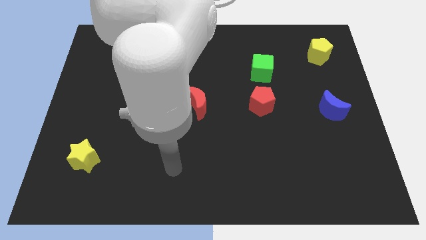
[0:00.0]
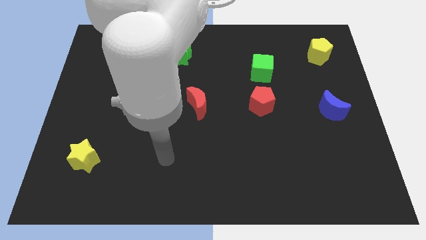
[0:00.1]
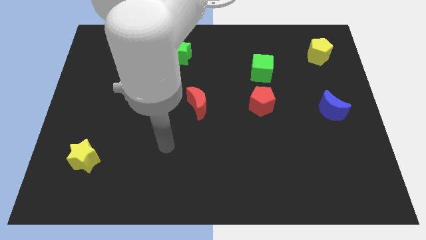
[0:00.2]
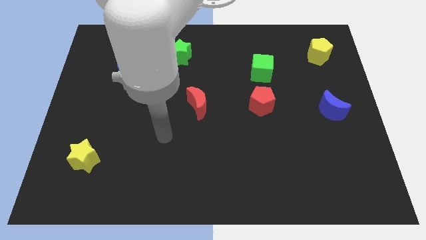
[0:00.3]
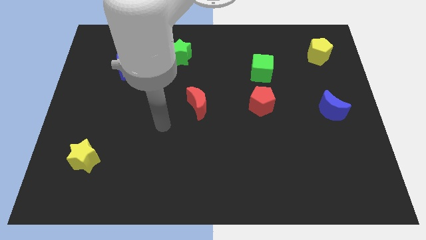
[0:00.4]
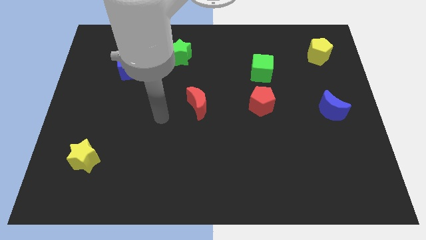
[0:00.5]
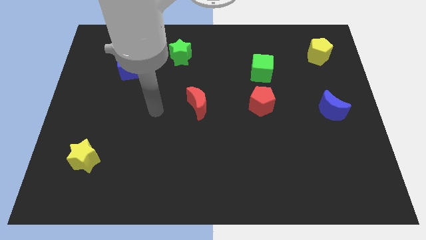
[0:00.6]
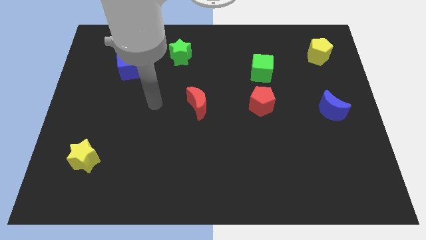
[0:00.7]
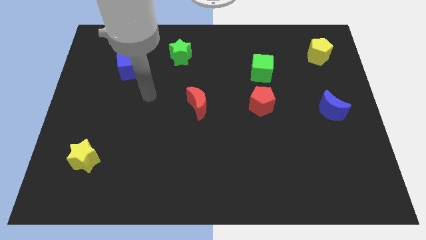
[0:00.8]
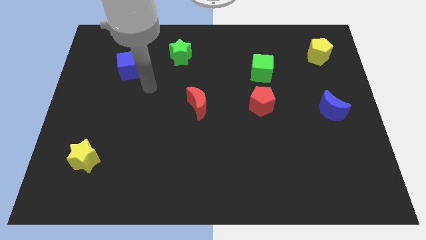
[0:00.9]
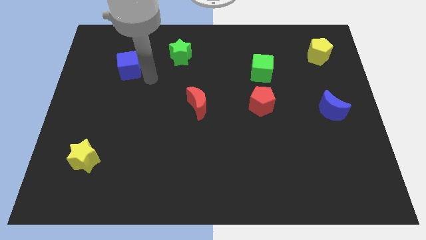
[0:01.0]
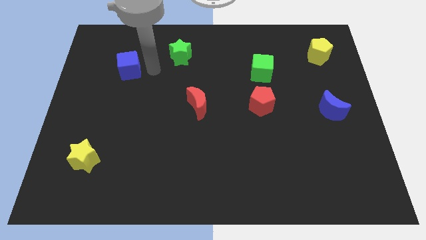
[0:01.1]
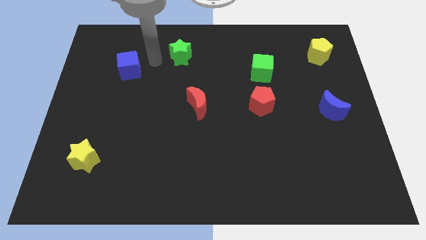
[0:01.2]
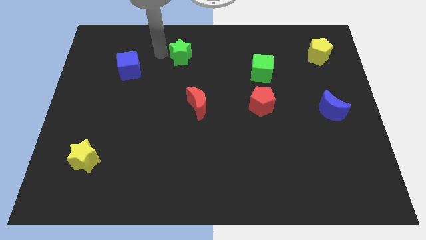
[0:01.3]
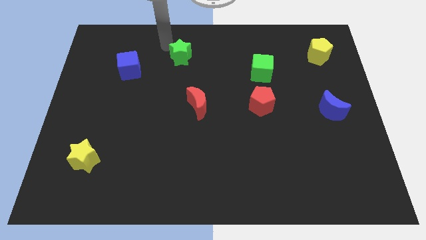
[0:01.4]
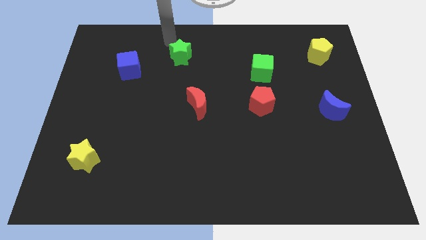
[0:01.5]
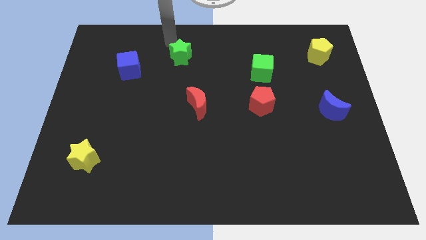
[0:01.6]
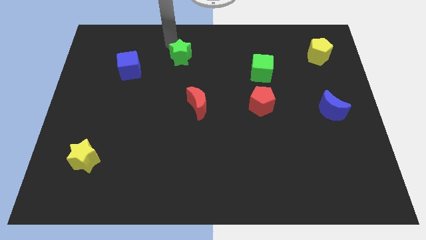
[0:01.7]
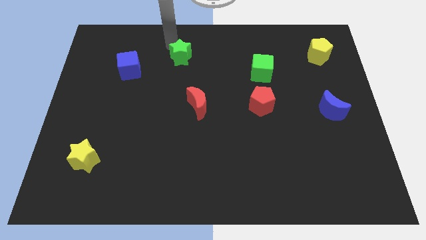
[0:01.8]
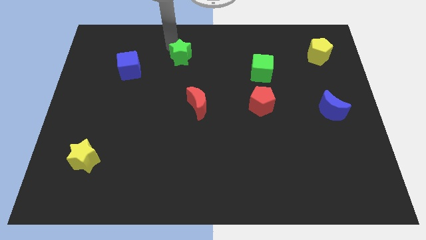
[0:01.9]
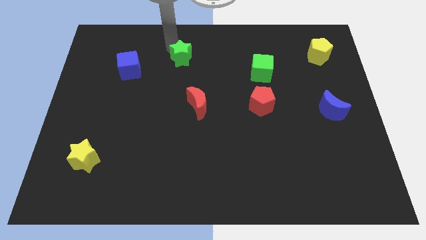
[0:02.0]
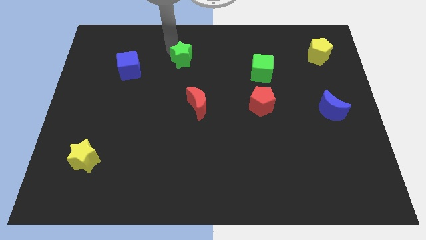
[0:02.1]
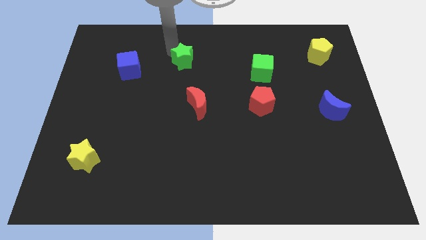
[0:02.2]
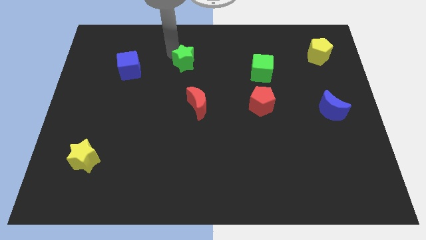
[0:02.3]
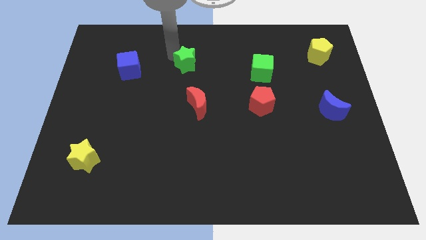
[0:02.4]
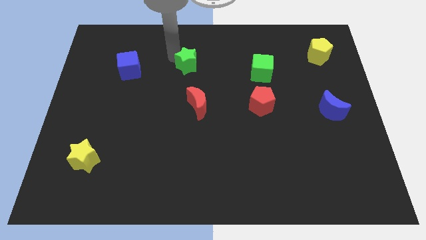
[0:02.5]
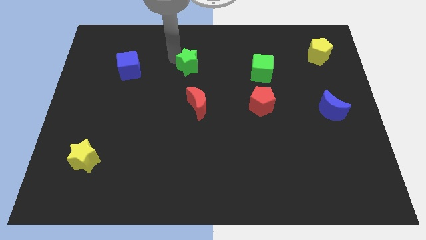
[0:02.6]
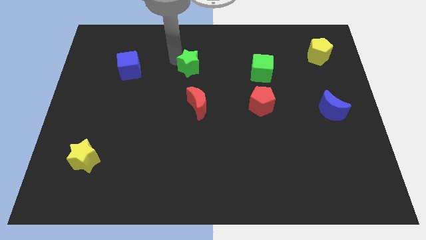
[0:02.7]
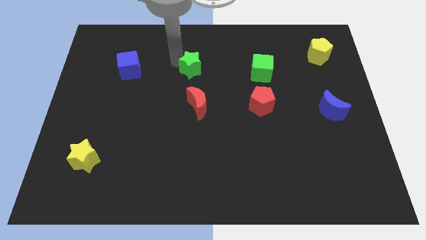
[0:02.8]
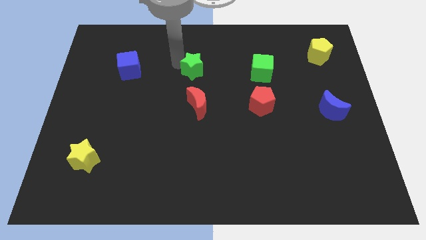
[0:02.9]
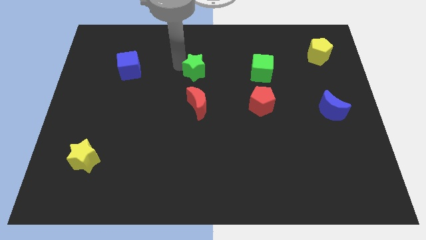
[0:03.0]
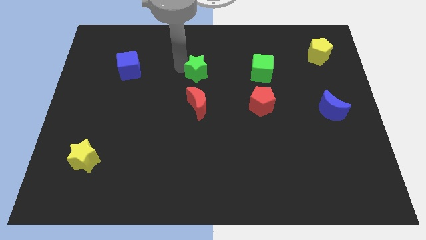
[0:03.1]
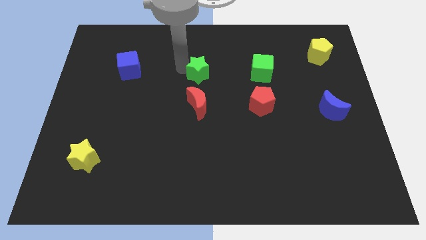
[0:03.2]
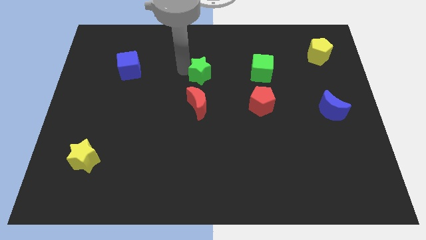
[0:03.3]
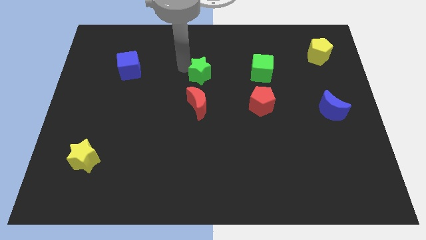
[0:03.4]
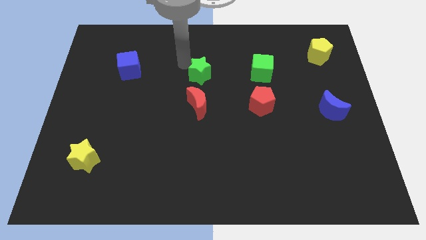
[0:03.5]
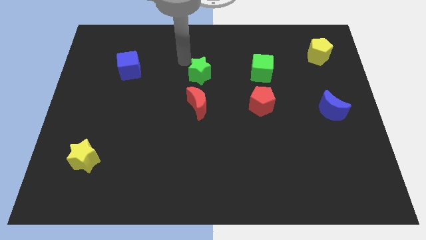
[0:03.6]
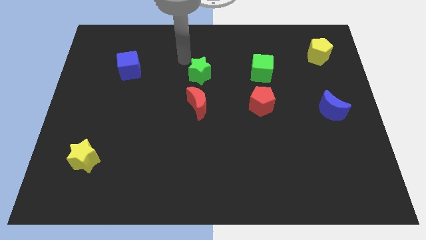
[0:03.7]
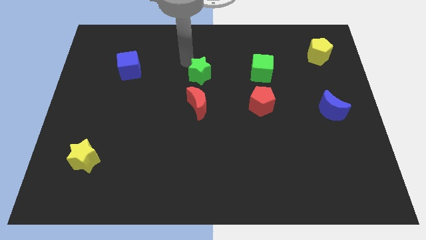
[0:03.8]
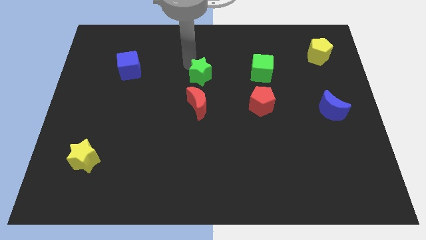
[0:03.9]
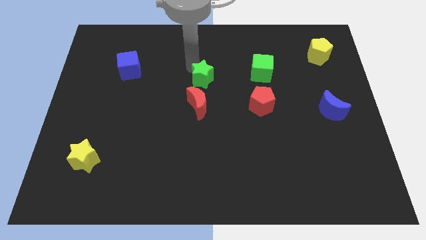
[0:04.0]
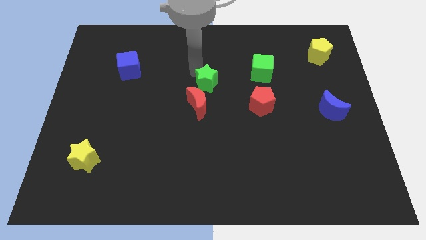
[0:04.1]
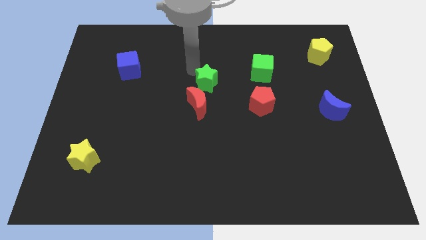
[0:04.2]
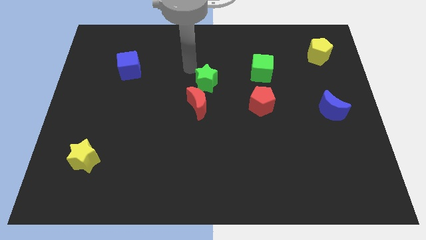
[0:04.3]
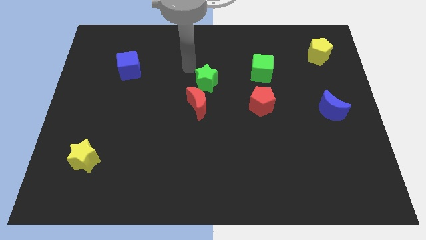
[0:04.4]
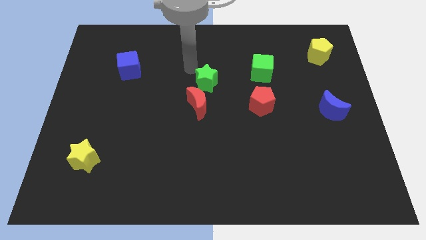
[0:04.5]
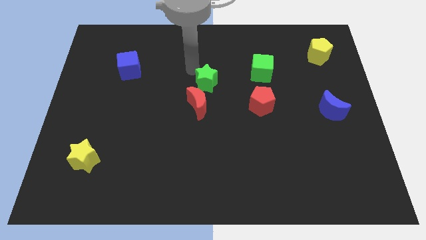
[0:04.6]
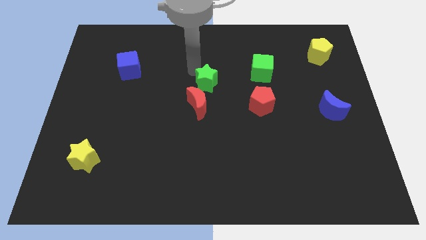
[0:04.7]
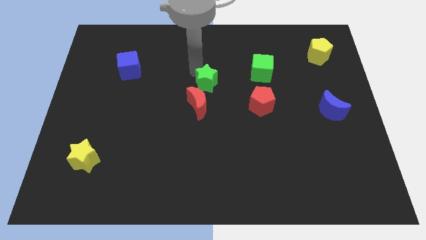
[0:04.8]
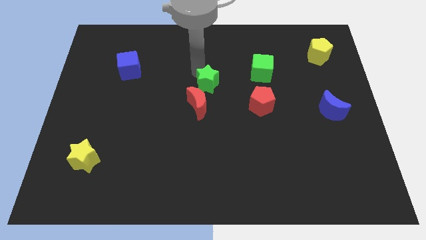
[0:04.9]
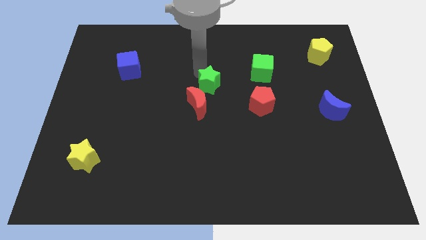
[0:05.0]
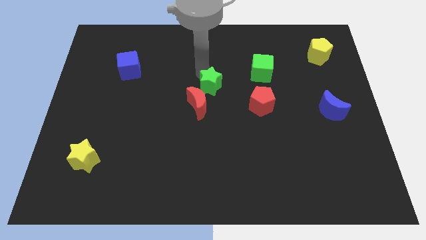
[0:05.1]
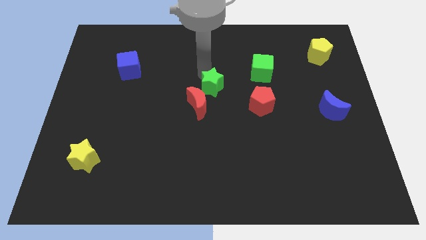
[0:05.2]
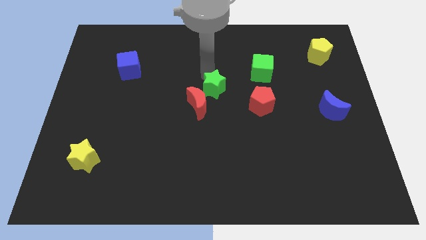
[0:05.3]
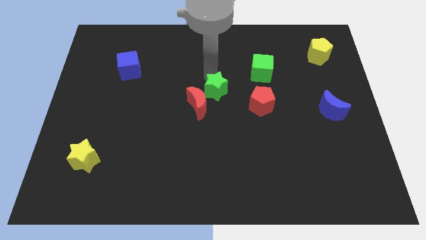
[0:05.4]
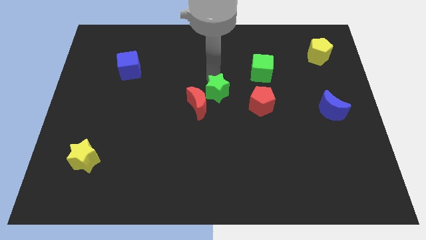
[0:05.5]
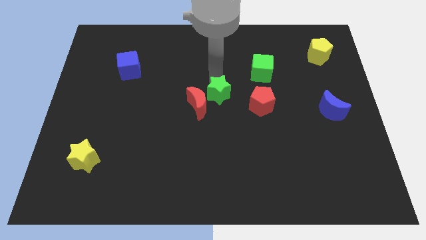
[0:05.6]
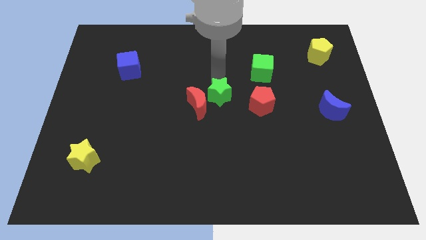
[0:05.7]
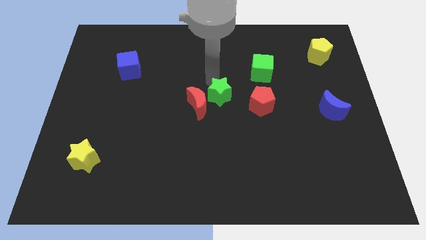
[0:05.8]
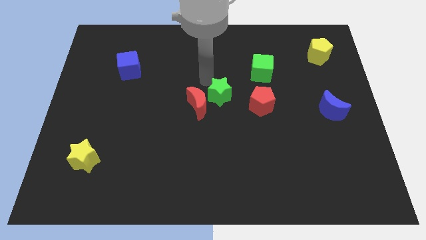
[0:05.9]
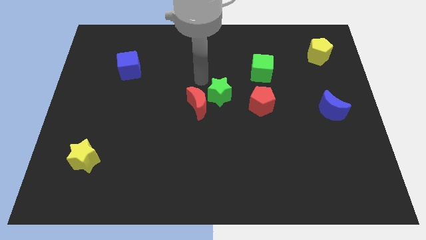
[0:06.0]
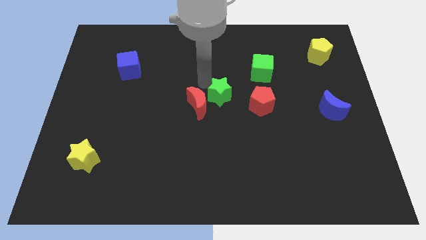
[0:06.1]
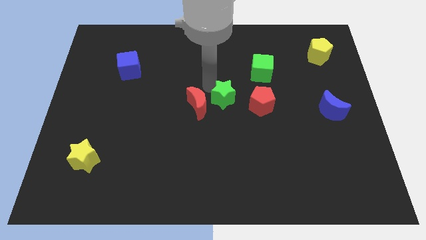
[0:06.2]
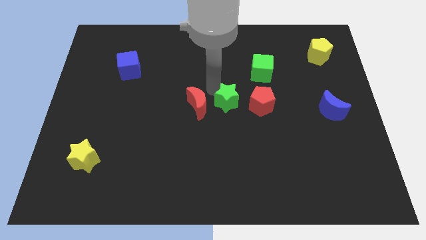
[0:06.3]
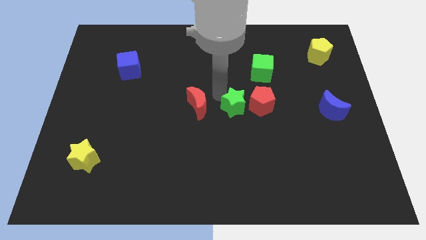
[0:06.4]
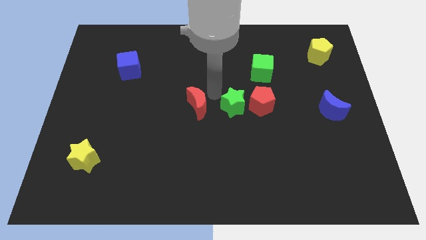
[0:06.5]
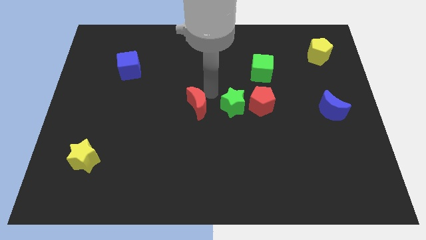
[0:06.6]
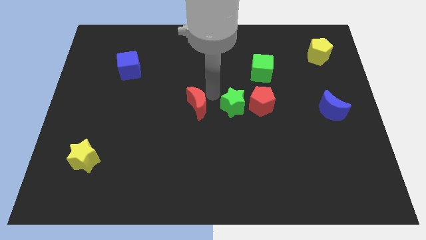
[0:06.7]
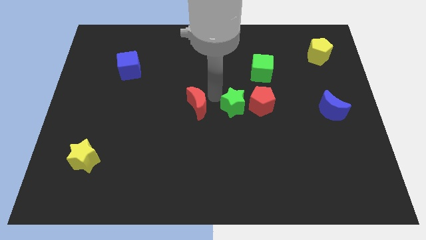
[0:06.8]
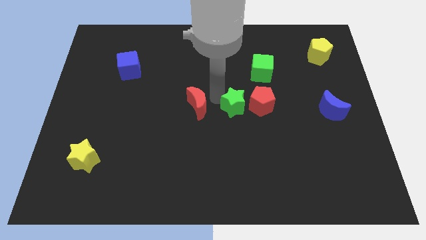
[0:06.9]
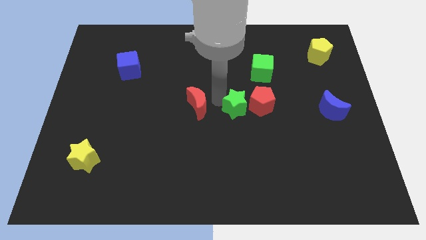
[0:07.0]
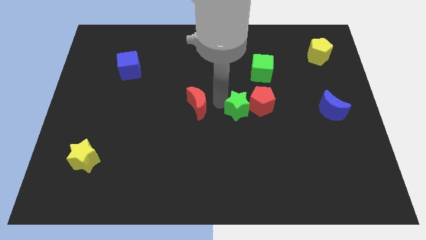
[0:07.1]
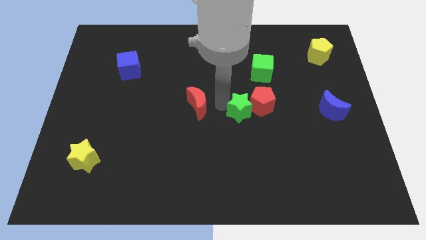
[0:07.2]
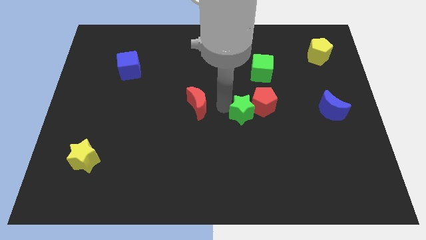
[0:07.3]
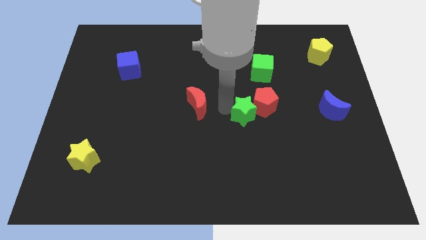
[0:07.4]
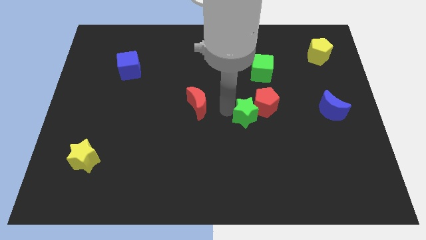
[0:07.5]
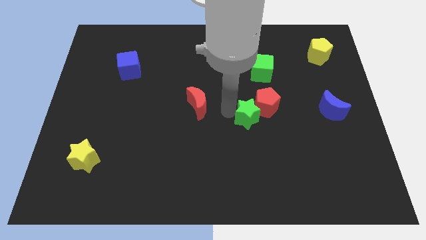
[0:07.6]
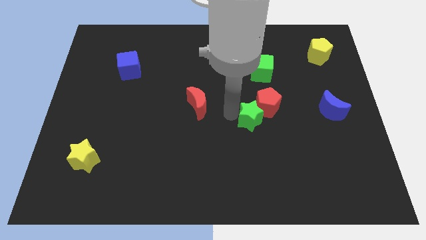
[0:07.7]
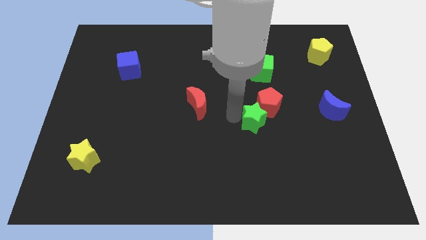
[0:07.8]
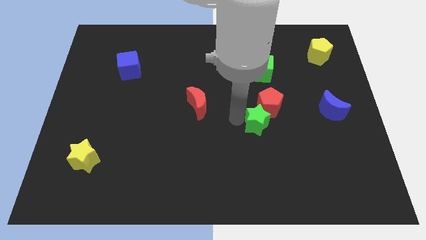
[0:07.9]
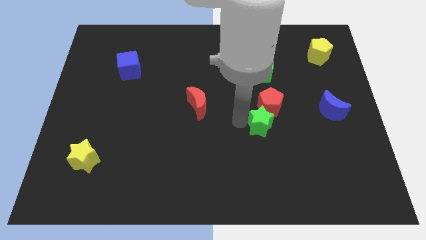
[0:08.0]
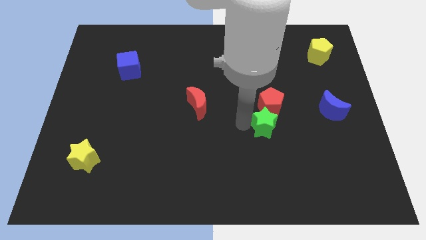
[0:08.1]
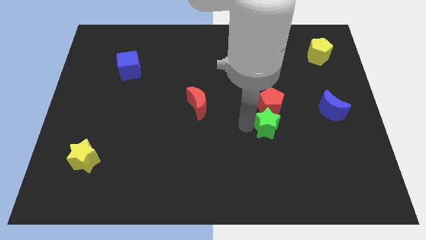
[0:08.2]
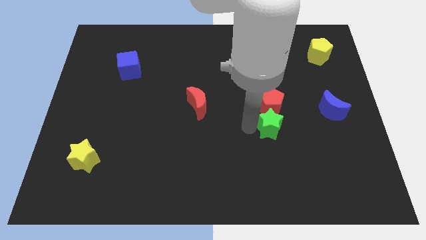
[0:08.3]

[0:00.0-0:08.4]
push the green star diagonally down and to the right of the red pentagon
